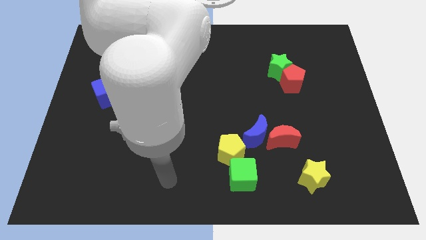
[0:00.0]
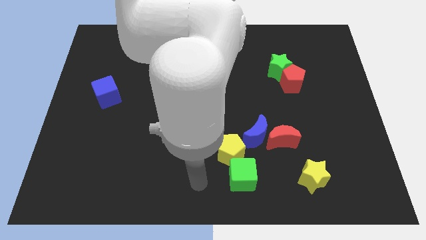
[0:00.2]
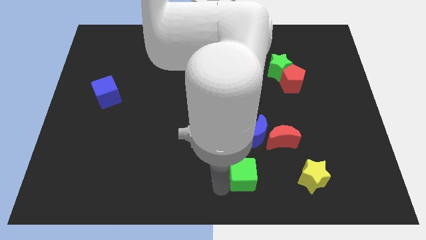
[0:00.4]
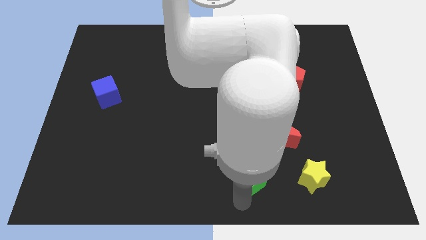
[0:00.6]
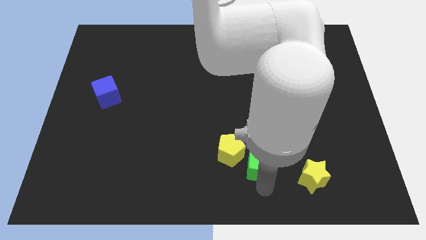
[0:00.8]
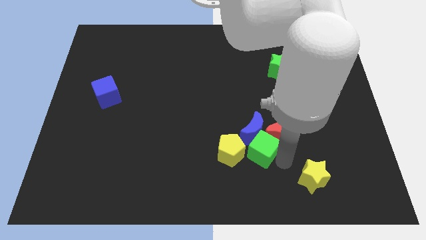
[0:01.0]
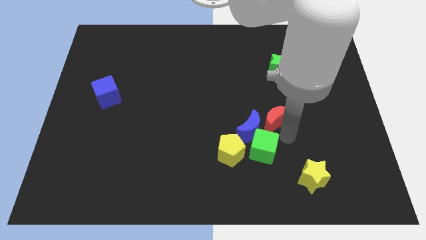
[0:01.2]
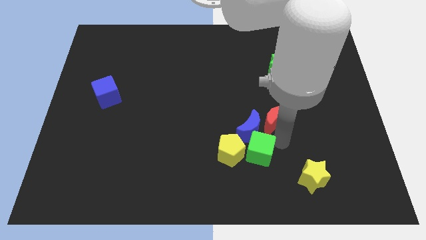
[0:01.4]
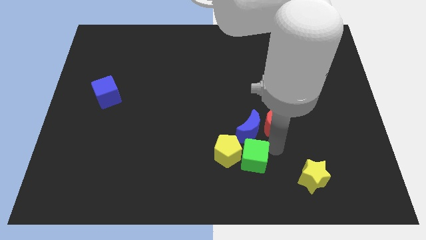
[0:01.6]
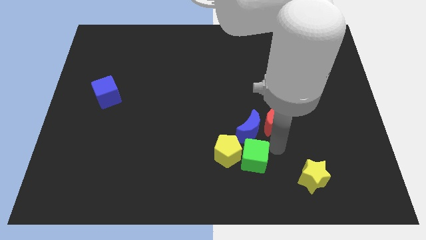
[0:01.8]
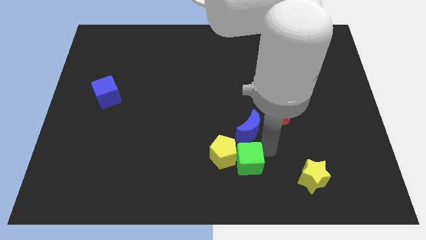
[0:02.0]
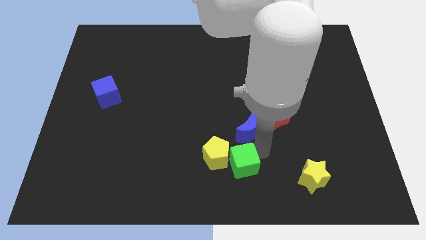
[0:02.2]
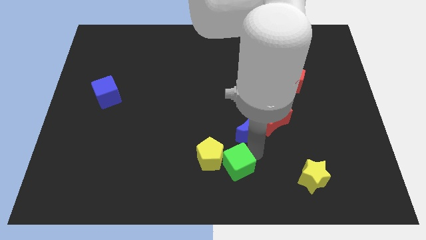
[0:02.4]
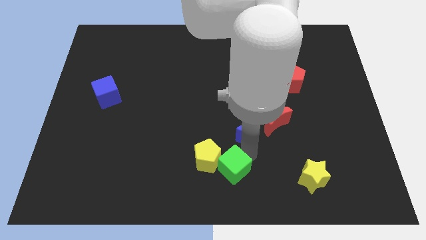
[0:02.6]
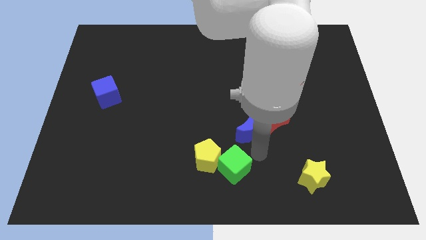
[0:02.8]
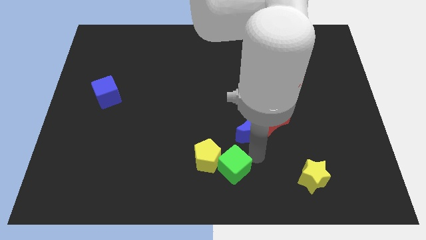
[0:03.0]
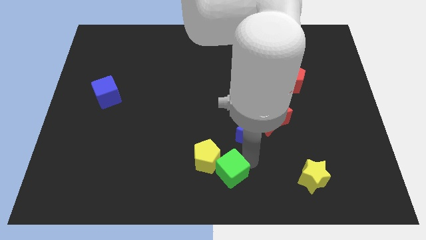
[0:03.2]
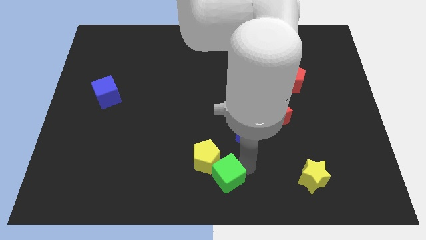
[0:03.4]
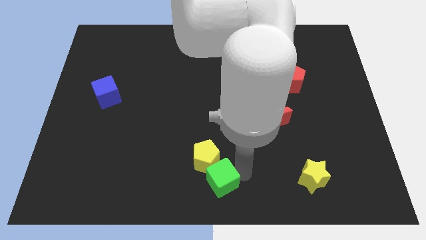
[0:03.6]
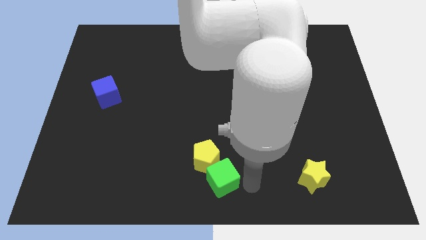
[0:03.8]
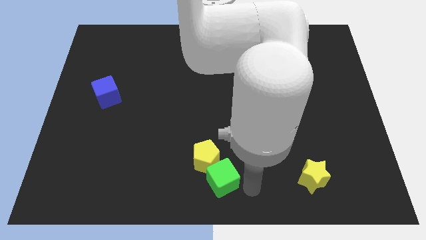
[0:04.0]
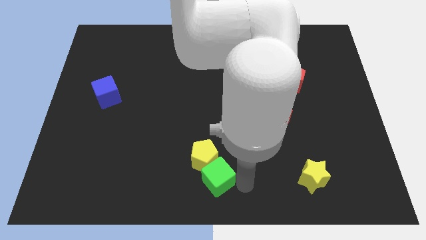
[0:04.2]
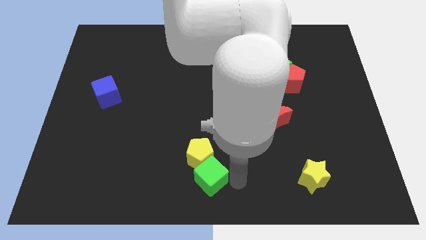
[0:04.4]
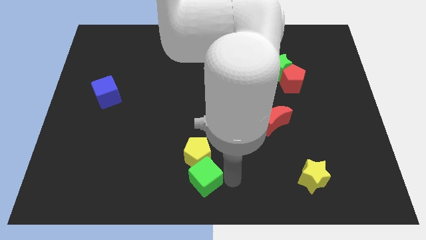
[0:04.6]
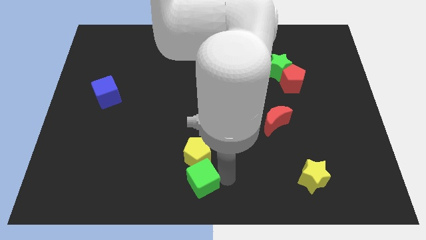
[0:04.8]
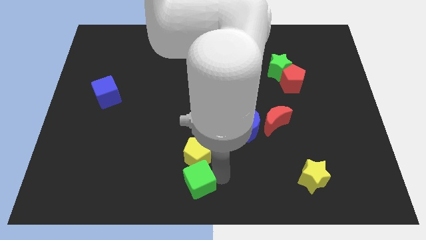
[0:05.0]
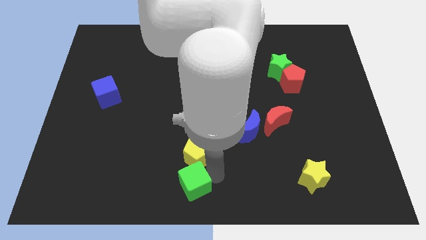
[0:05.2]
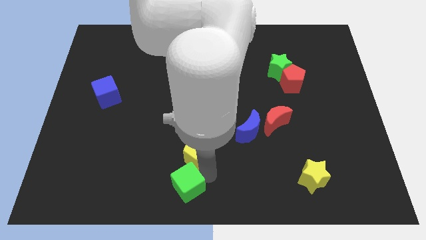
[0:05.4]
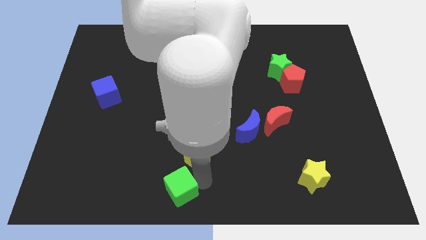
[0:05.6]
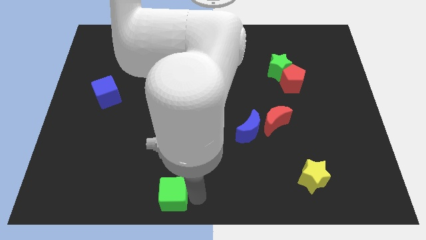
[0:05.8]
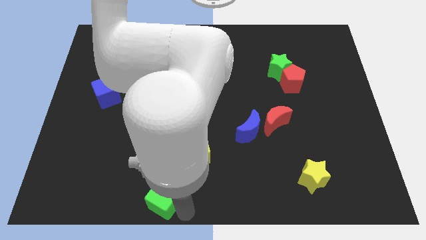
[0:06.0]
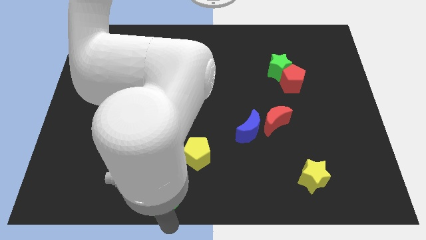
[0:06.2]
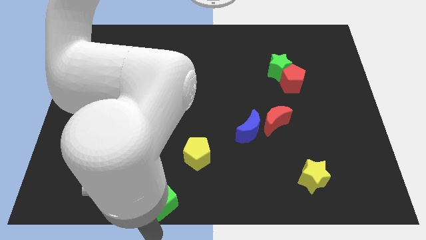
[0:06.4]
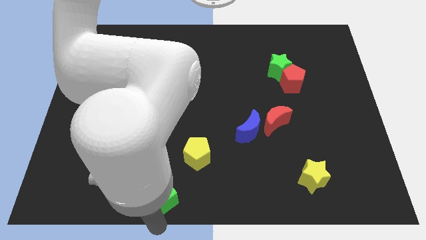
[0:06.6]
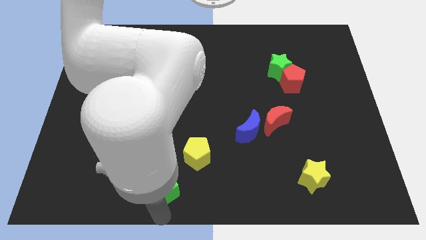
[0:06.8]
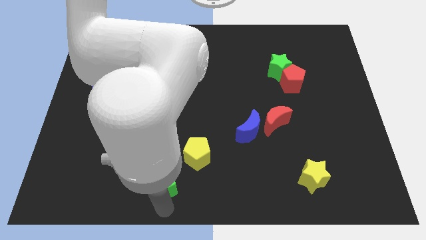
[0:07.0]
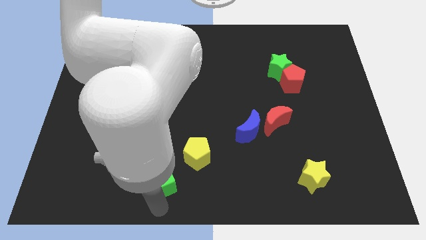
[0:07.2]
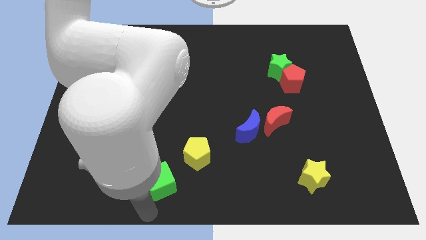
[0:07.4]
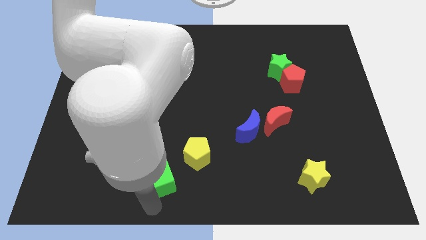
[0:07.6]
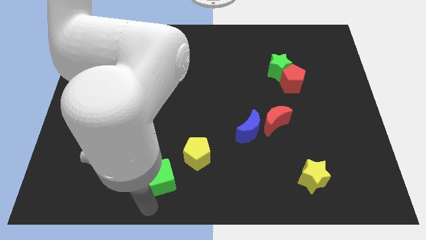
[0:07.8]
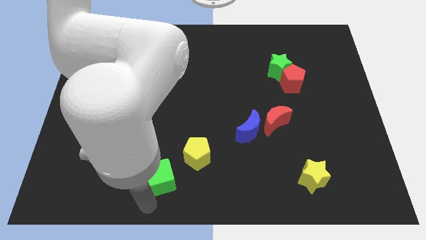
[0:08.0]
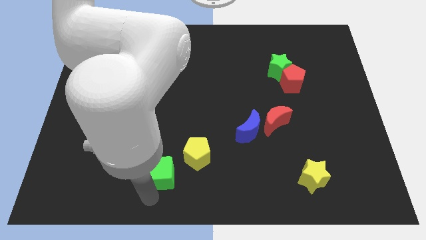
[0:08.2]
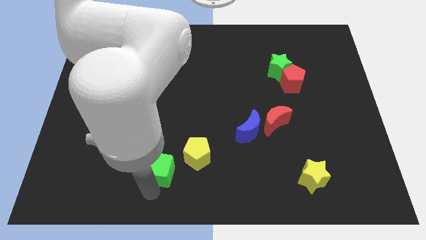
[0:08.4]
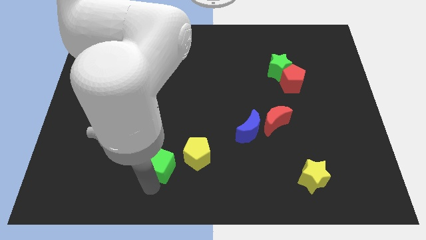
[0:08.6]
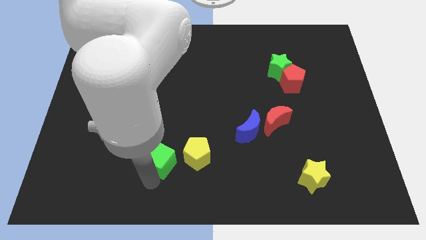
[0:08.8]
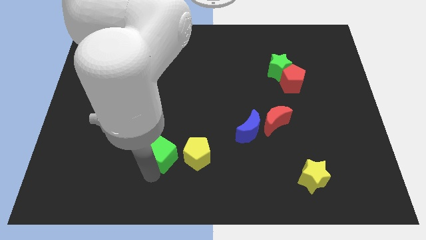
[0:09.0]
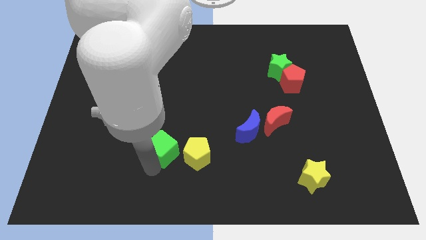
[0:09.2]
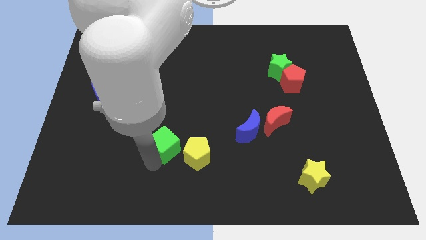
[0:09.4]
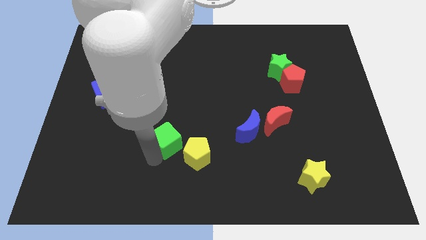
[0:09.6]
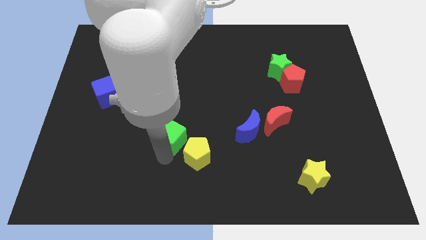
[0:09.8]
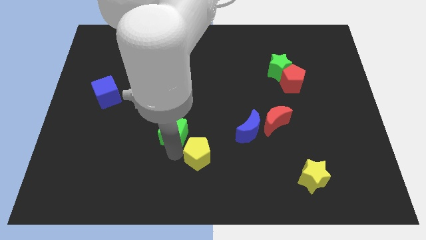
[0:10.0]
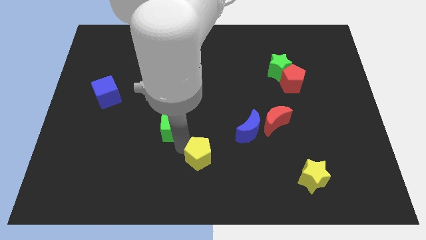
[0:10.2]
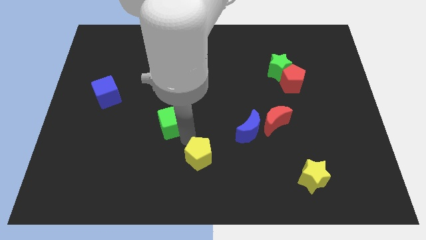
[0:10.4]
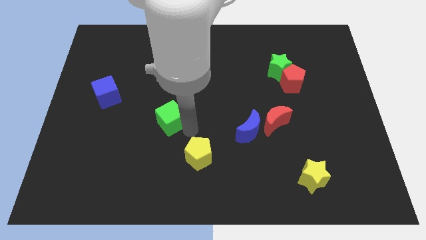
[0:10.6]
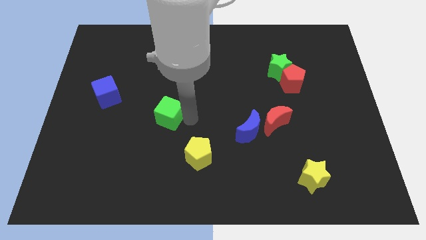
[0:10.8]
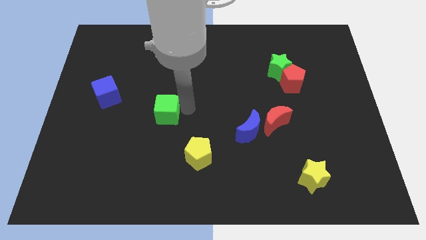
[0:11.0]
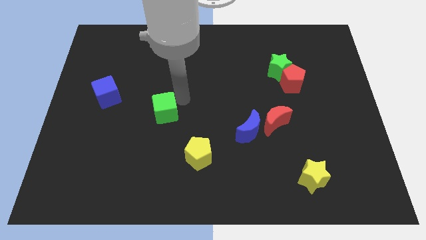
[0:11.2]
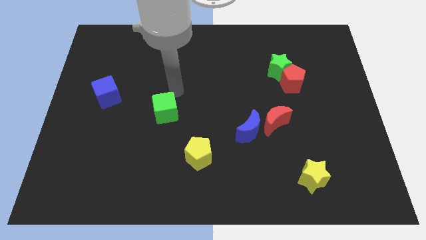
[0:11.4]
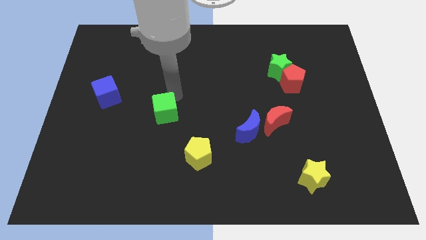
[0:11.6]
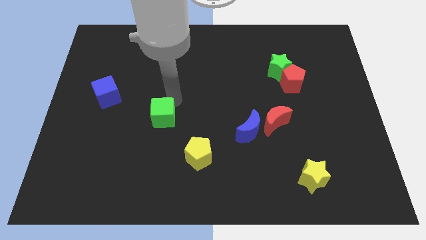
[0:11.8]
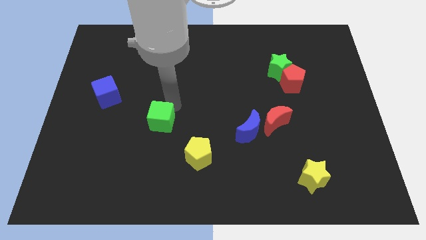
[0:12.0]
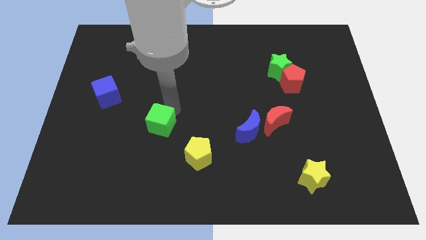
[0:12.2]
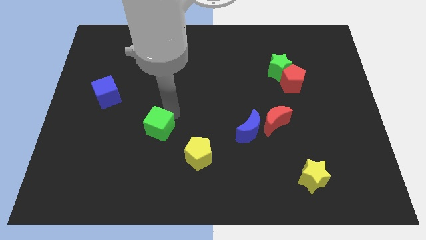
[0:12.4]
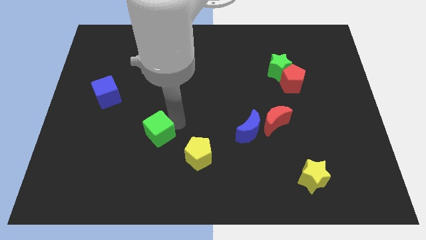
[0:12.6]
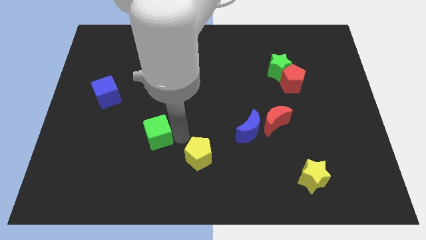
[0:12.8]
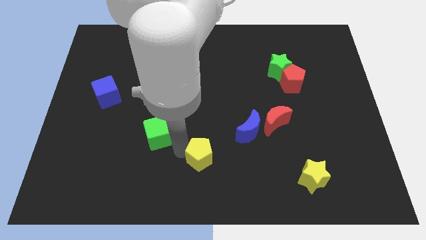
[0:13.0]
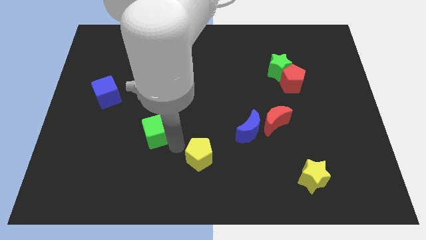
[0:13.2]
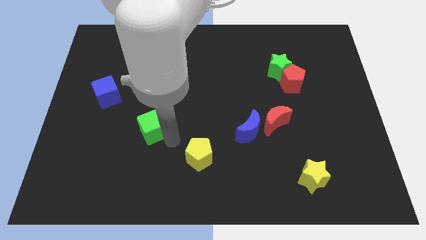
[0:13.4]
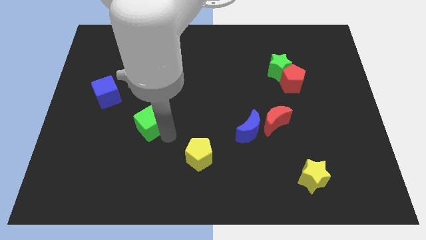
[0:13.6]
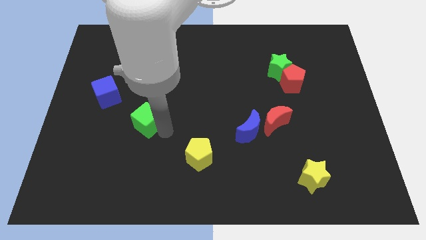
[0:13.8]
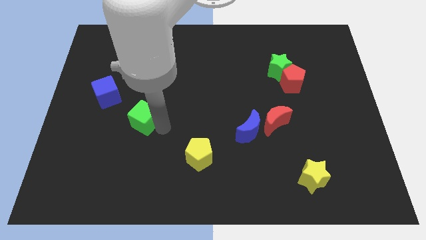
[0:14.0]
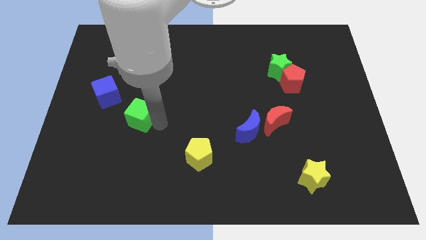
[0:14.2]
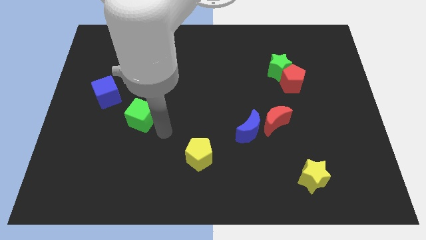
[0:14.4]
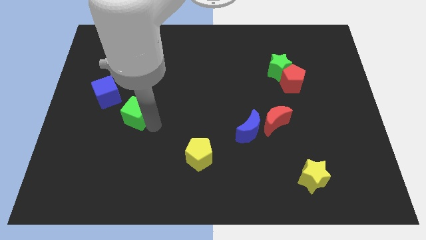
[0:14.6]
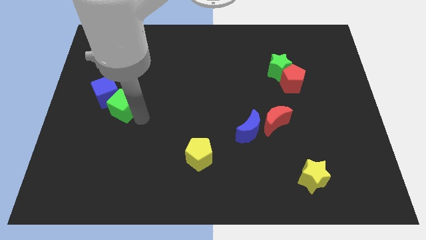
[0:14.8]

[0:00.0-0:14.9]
put the green cube next to the blue cube

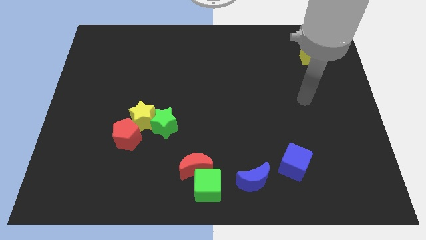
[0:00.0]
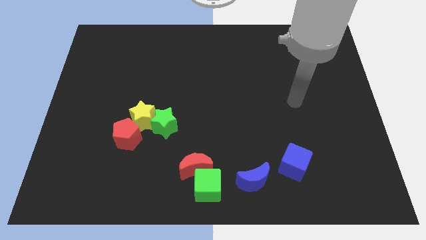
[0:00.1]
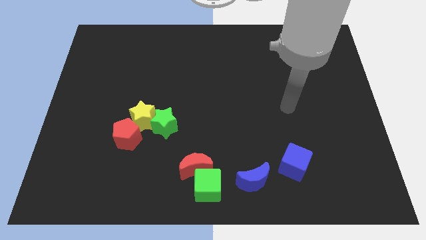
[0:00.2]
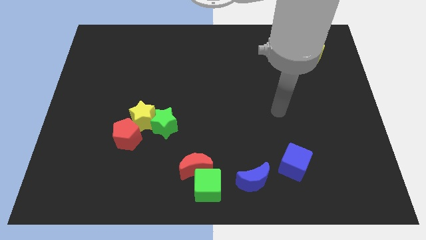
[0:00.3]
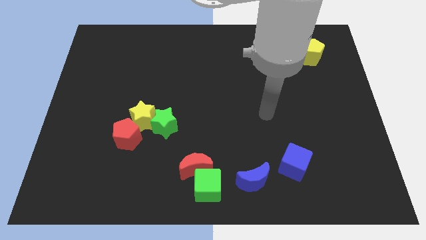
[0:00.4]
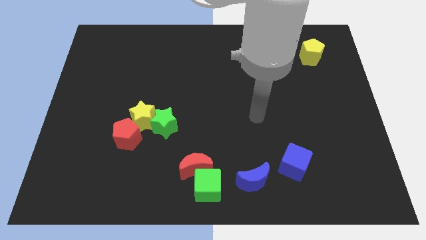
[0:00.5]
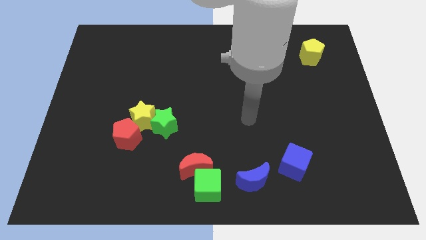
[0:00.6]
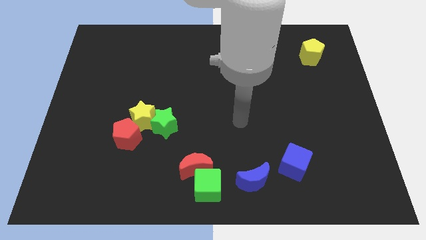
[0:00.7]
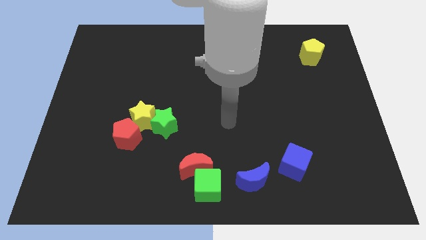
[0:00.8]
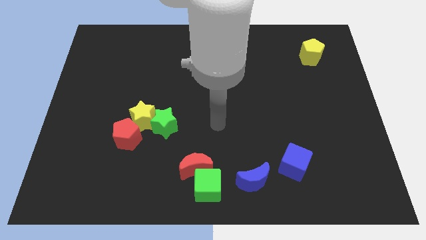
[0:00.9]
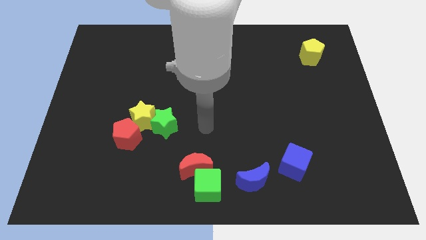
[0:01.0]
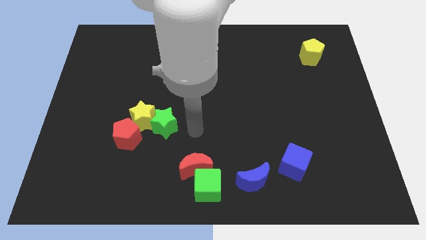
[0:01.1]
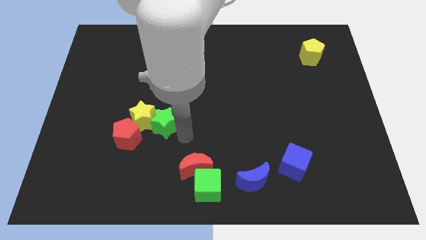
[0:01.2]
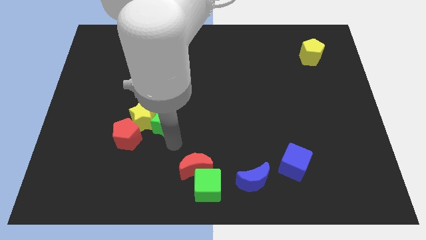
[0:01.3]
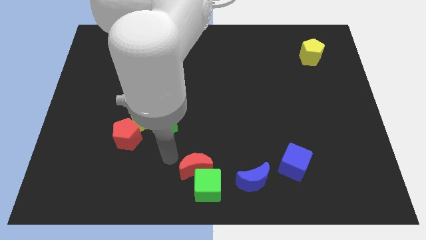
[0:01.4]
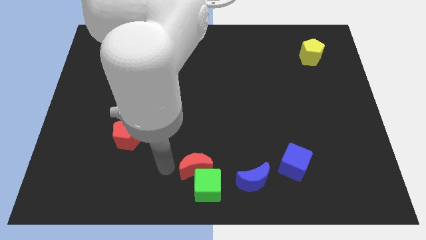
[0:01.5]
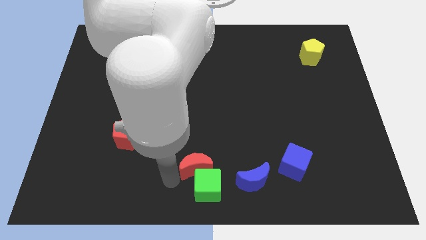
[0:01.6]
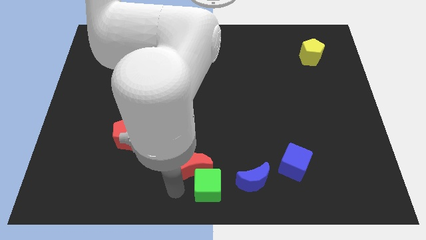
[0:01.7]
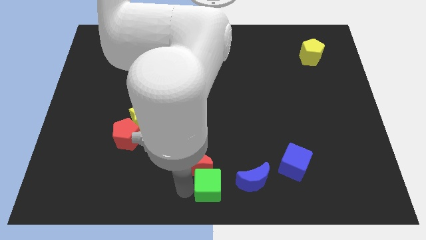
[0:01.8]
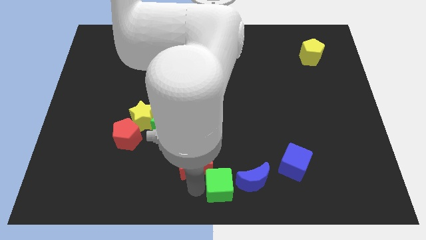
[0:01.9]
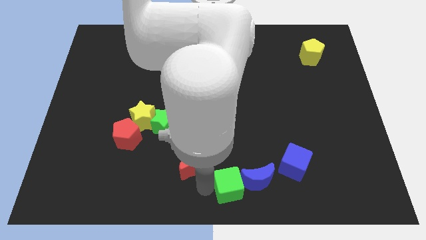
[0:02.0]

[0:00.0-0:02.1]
move the green cube towards the blue moon
